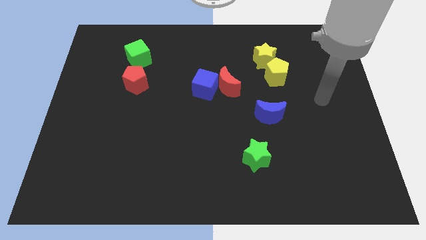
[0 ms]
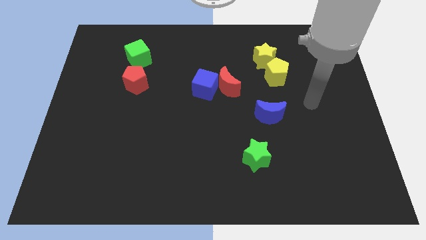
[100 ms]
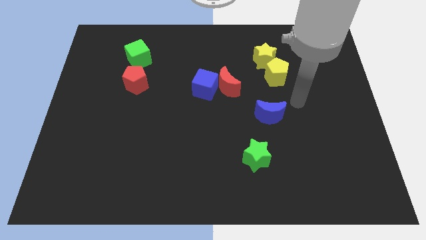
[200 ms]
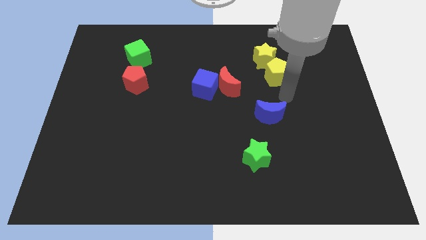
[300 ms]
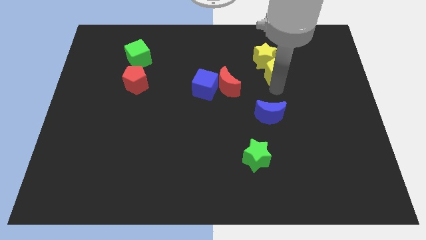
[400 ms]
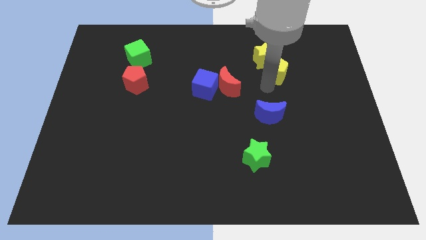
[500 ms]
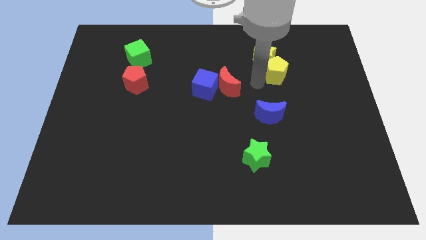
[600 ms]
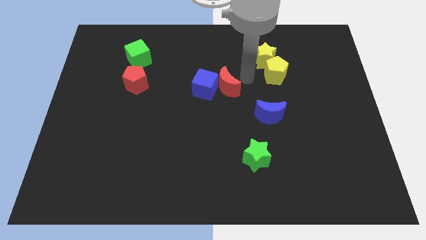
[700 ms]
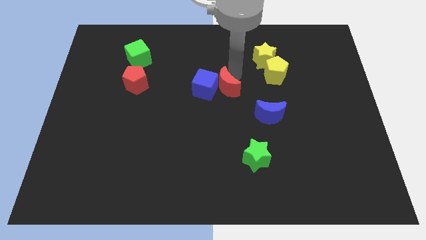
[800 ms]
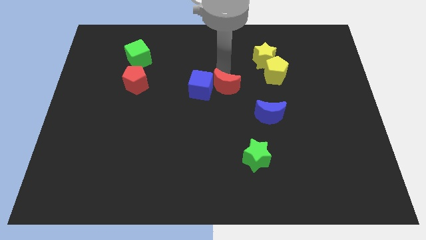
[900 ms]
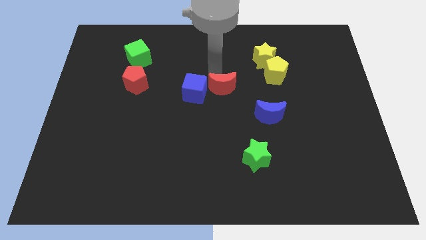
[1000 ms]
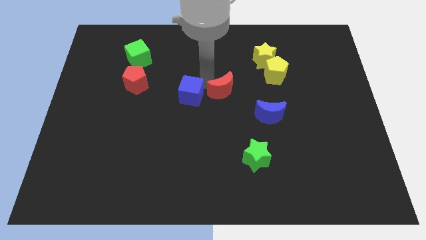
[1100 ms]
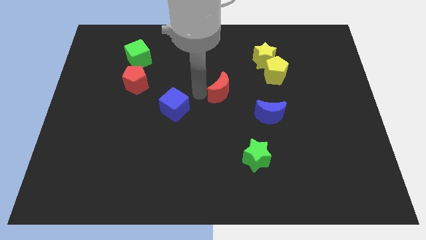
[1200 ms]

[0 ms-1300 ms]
move the red moon away from the blue cube

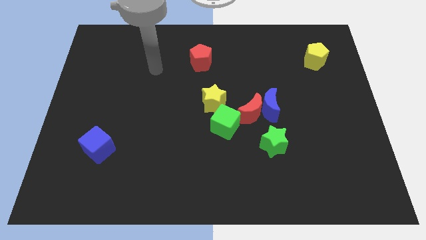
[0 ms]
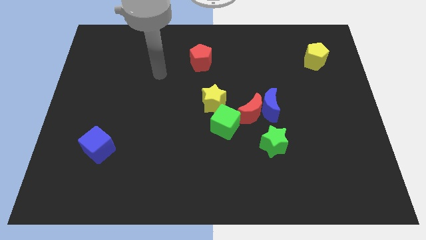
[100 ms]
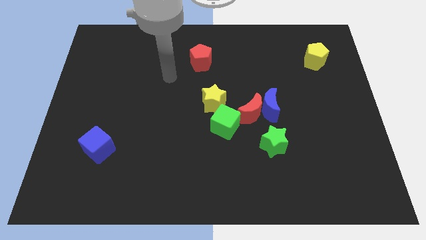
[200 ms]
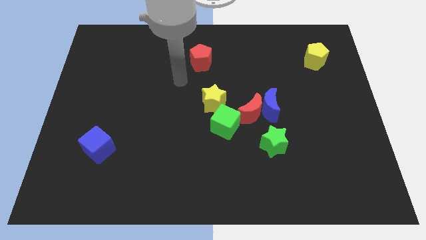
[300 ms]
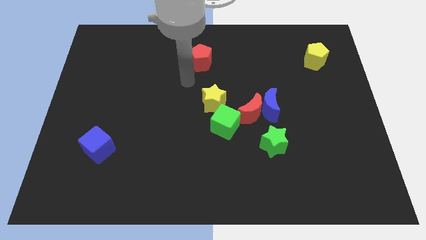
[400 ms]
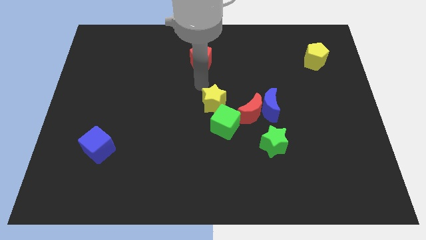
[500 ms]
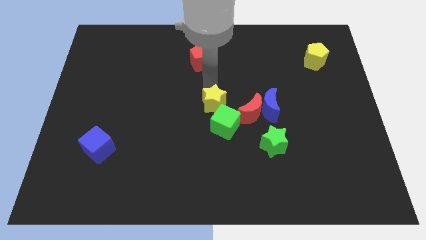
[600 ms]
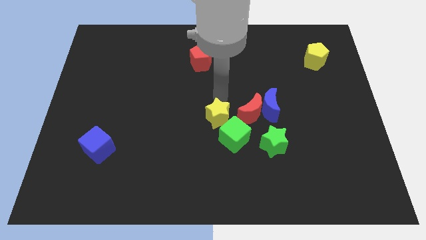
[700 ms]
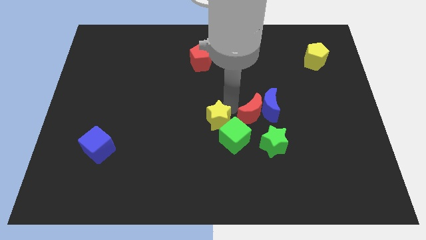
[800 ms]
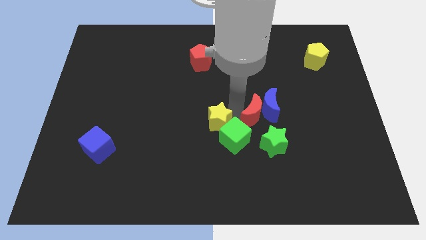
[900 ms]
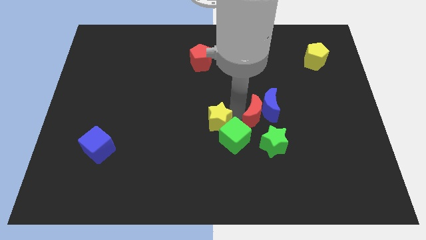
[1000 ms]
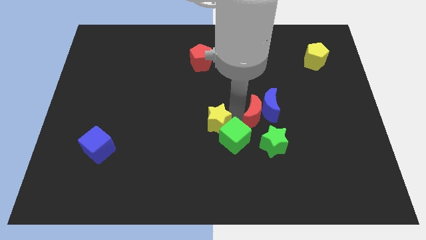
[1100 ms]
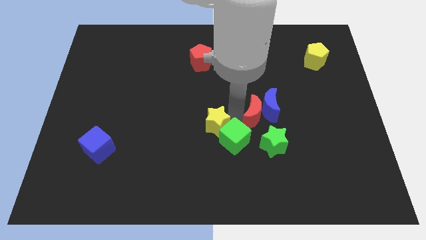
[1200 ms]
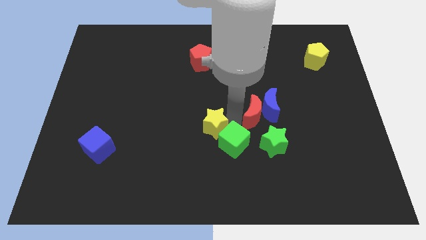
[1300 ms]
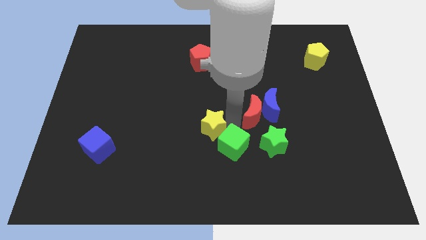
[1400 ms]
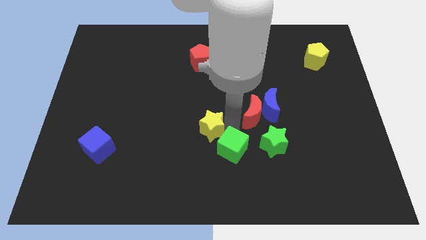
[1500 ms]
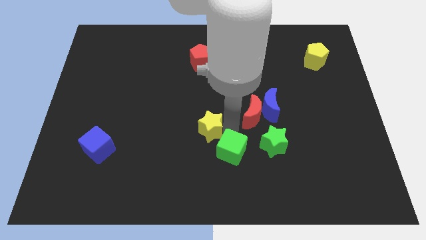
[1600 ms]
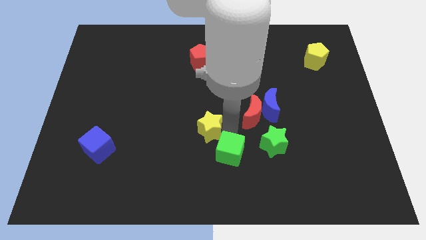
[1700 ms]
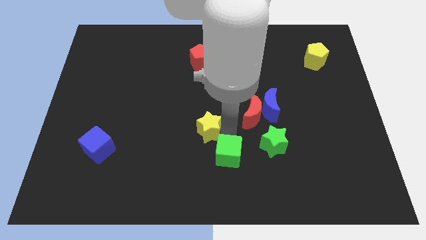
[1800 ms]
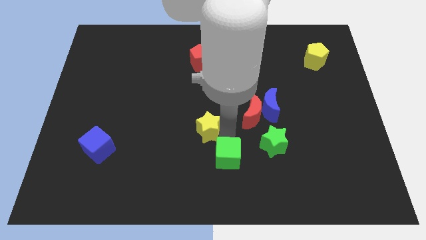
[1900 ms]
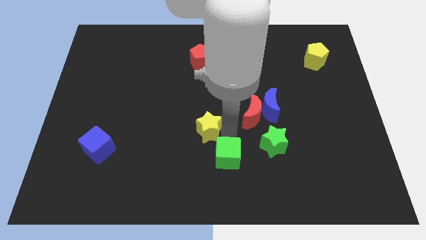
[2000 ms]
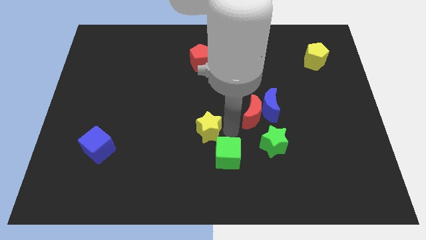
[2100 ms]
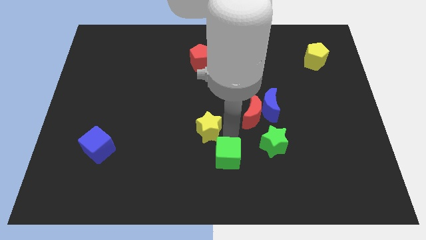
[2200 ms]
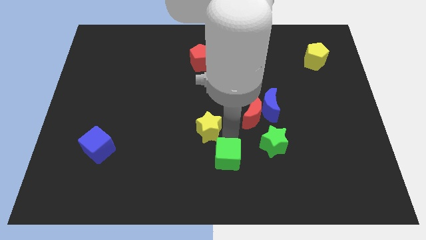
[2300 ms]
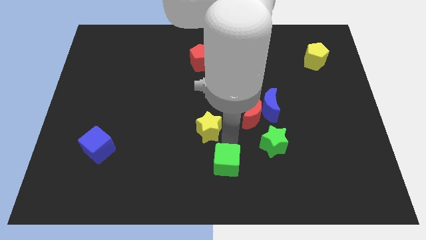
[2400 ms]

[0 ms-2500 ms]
pull the green cube apart from the red moon and yellow star

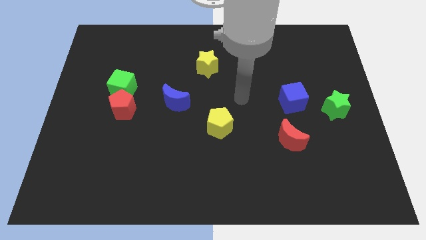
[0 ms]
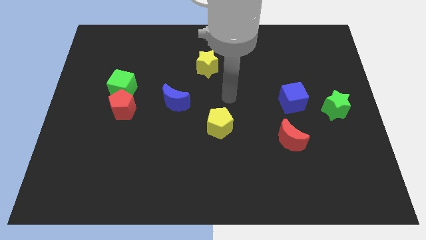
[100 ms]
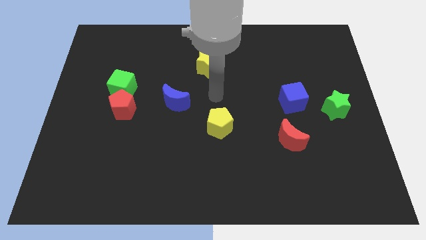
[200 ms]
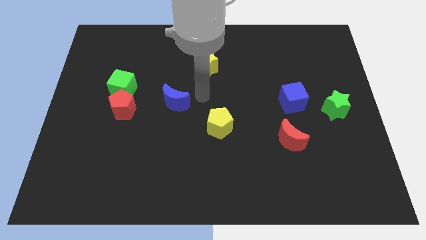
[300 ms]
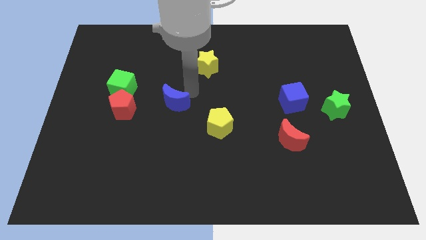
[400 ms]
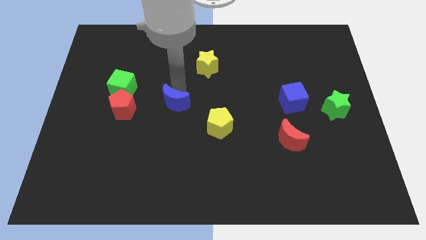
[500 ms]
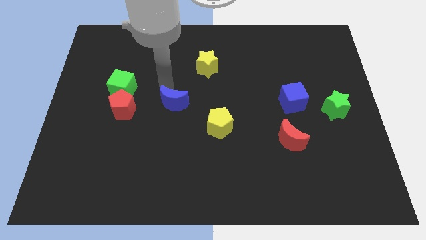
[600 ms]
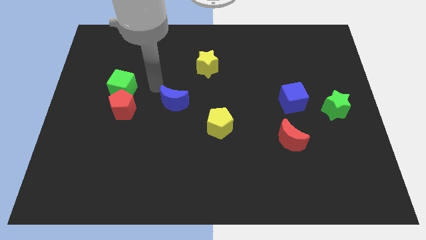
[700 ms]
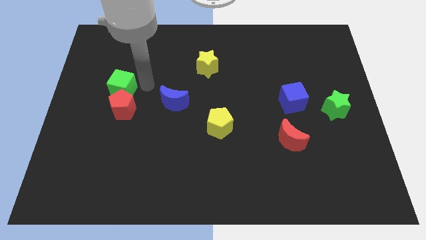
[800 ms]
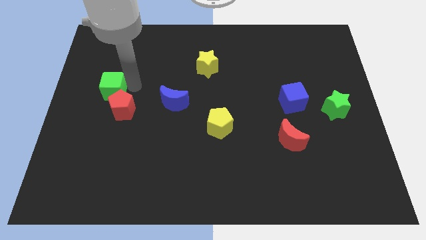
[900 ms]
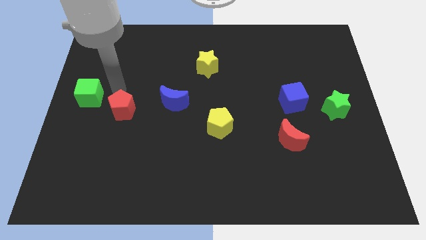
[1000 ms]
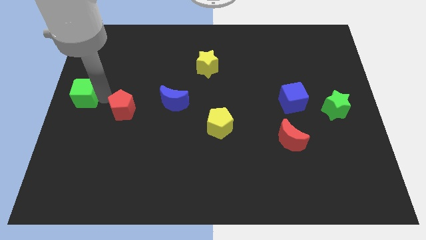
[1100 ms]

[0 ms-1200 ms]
separate the red pentagon from the green cube

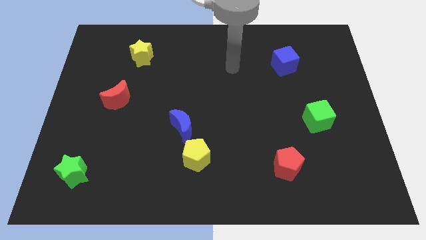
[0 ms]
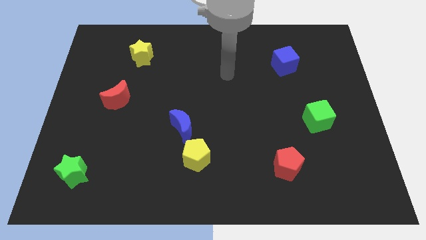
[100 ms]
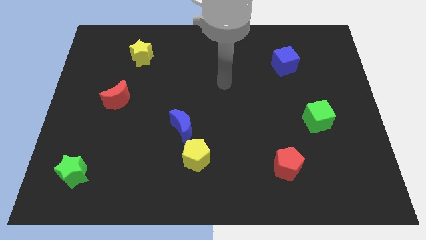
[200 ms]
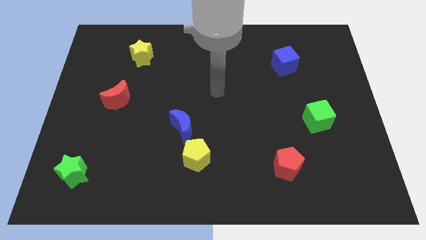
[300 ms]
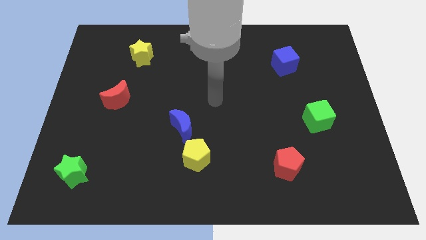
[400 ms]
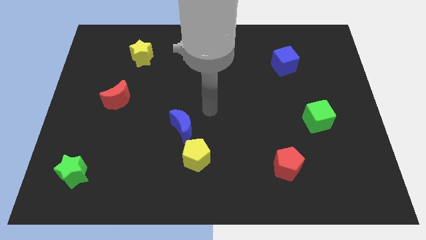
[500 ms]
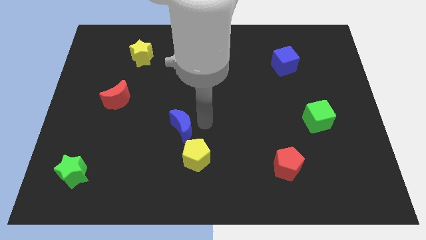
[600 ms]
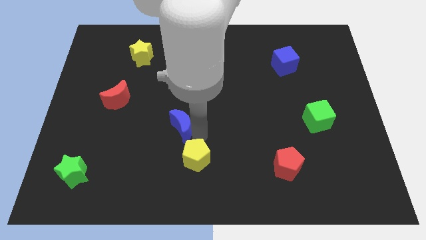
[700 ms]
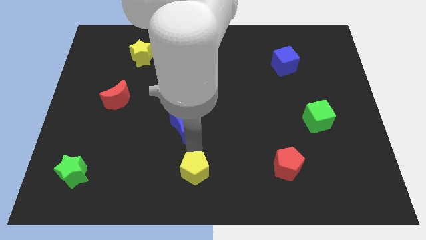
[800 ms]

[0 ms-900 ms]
separate the blue moon from the yellow pentagon

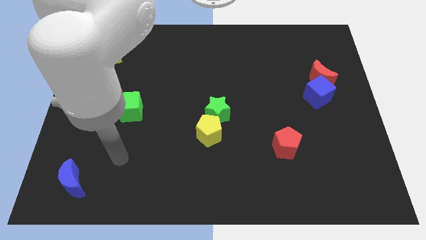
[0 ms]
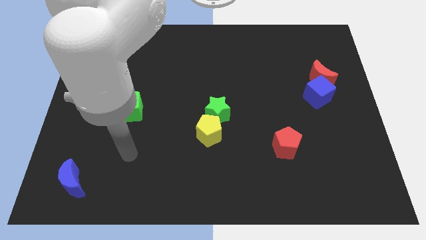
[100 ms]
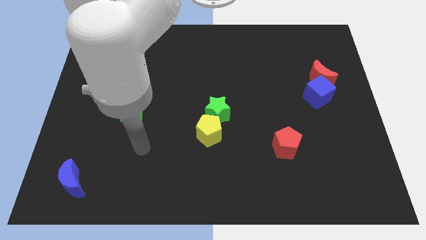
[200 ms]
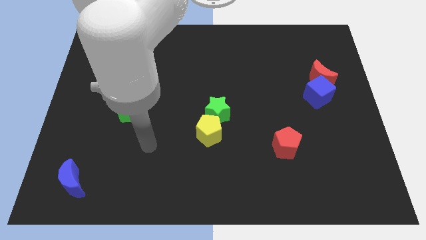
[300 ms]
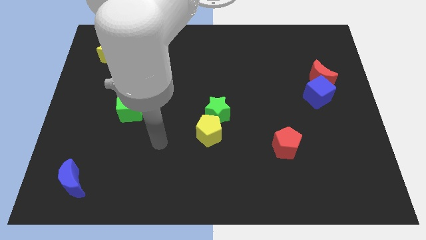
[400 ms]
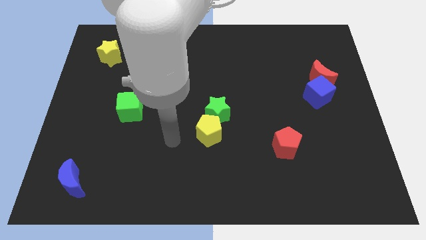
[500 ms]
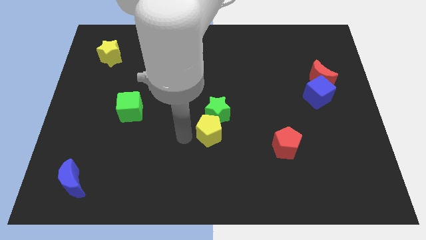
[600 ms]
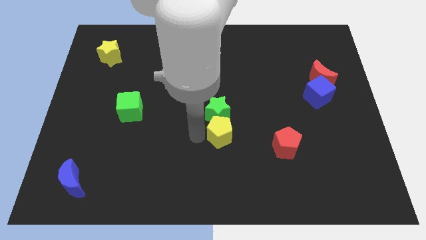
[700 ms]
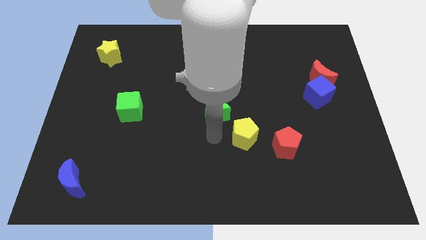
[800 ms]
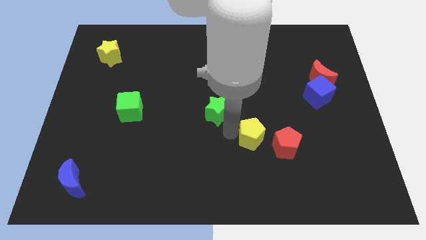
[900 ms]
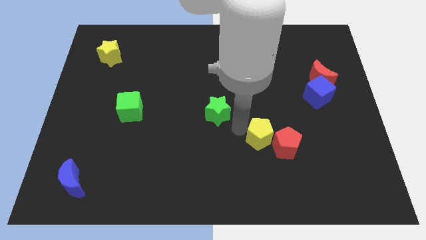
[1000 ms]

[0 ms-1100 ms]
pull the green star apart from the yellow pentagon

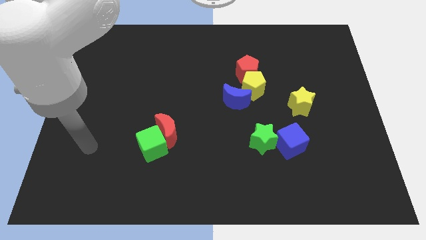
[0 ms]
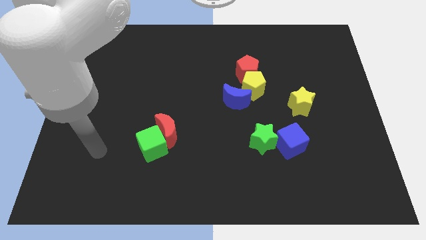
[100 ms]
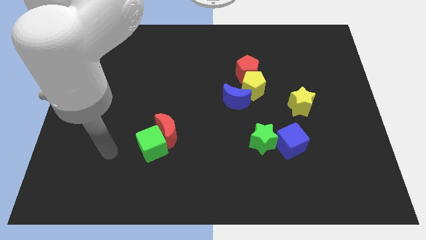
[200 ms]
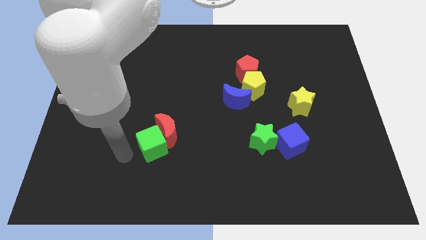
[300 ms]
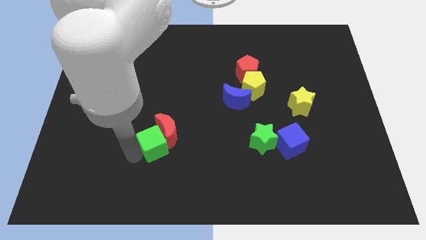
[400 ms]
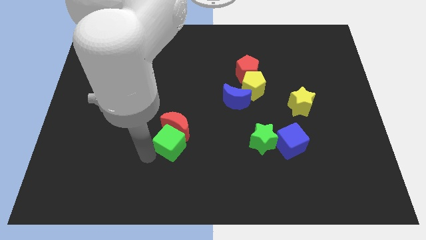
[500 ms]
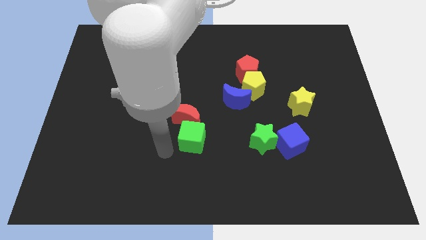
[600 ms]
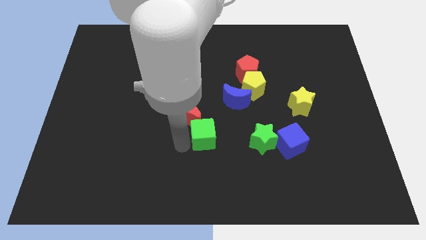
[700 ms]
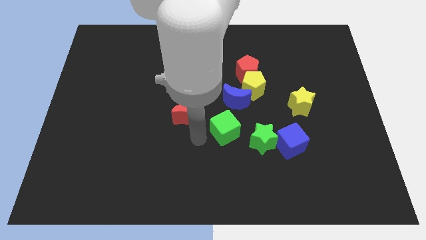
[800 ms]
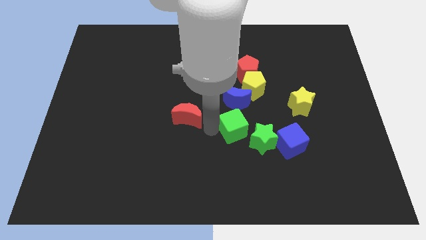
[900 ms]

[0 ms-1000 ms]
separate the red moon from the green cube

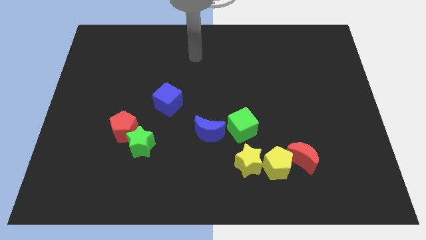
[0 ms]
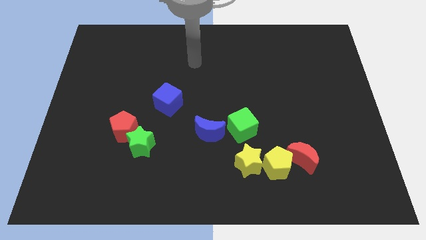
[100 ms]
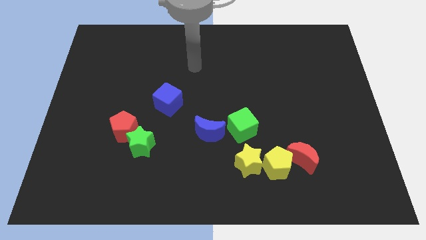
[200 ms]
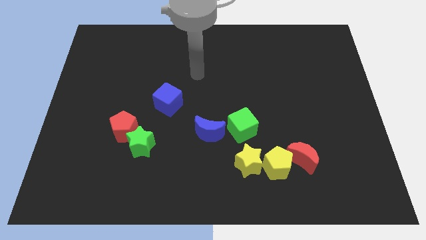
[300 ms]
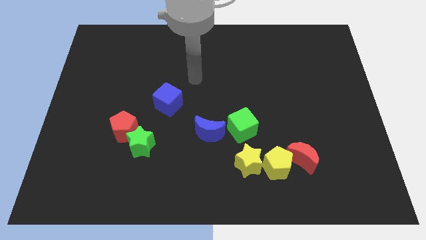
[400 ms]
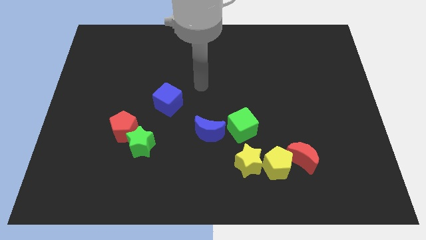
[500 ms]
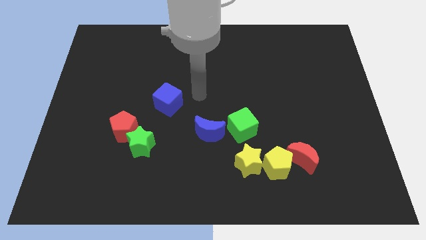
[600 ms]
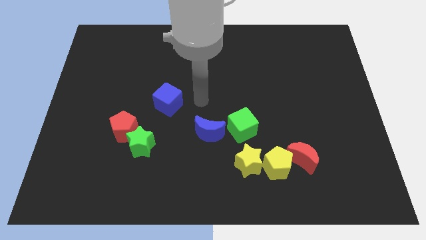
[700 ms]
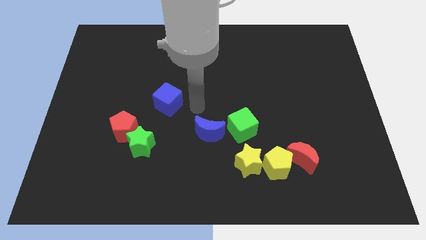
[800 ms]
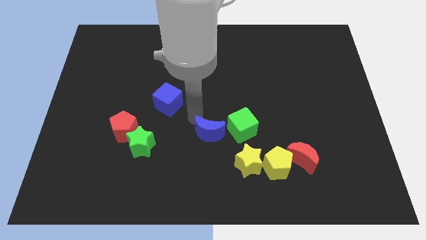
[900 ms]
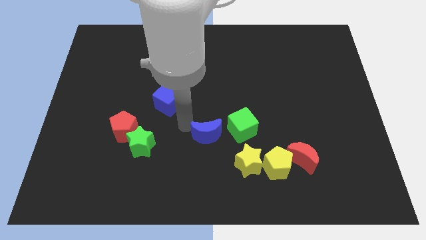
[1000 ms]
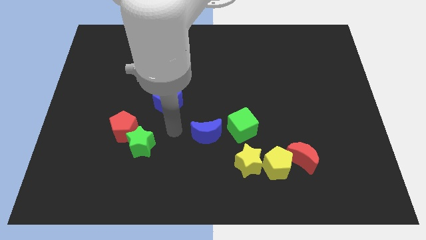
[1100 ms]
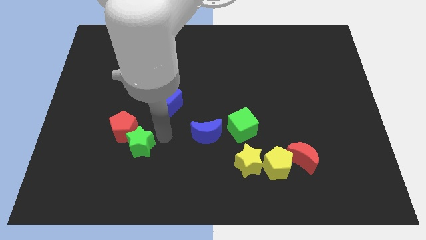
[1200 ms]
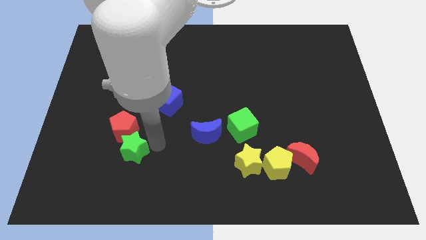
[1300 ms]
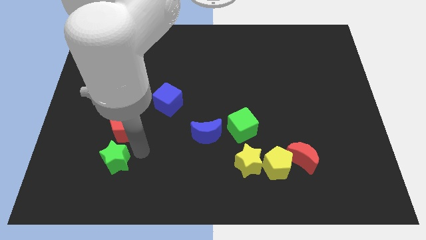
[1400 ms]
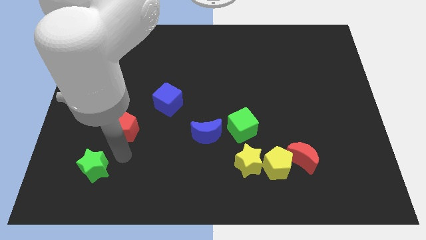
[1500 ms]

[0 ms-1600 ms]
separate the red pentagon from the green star
